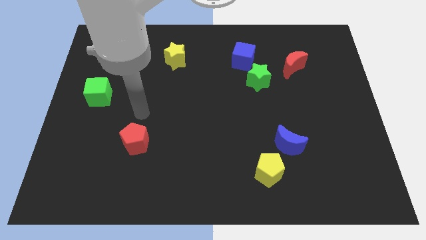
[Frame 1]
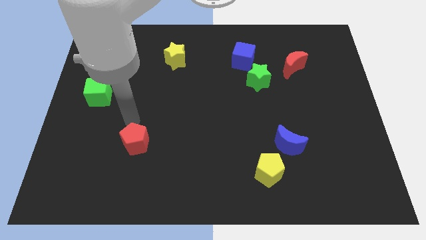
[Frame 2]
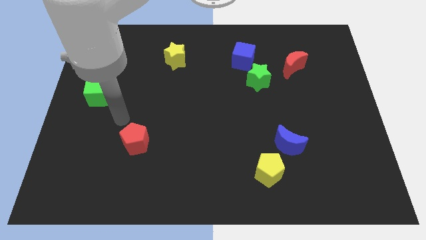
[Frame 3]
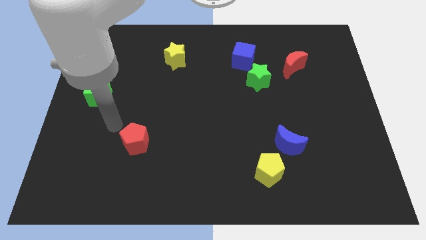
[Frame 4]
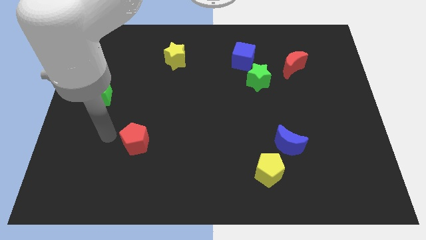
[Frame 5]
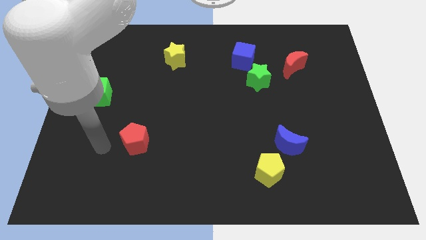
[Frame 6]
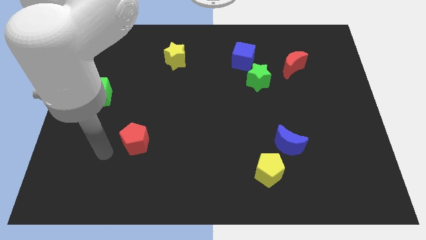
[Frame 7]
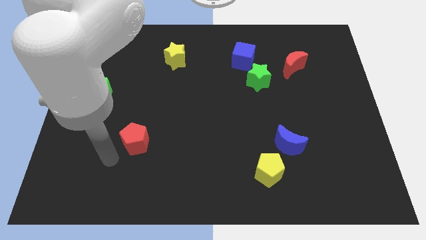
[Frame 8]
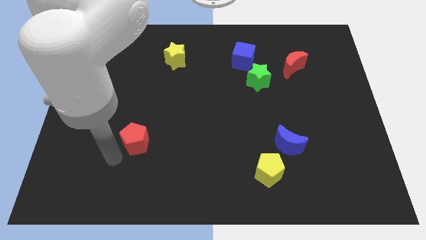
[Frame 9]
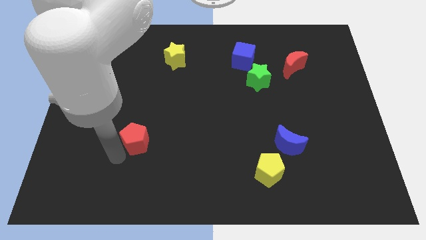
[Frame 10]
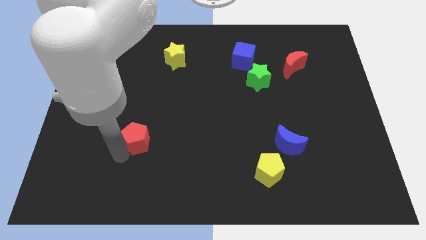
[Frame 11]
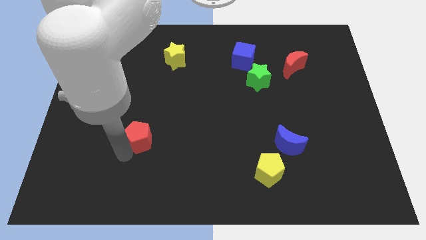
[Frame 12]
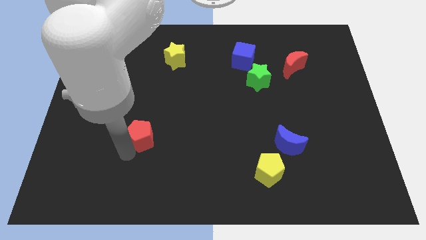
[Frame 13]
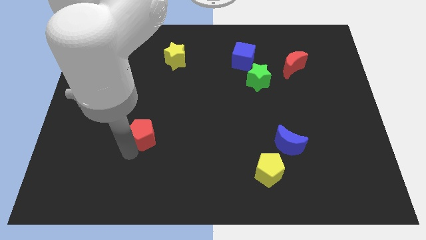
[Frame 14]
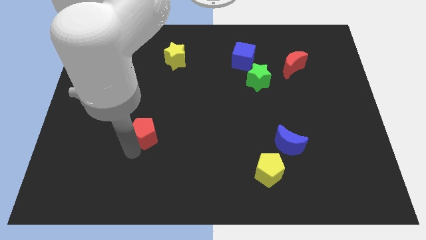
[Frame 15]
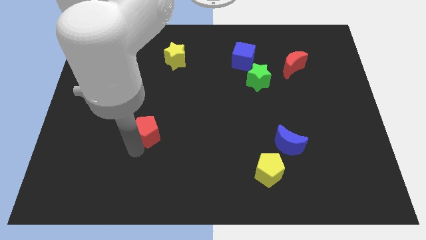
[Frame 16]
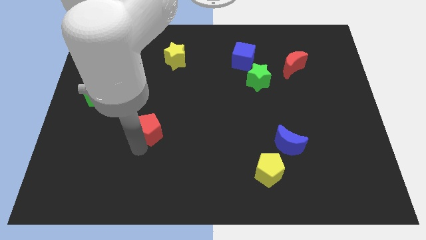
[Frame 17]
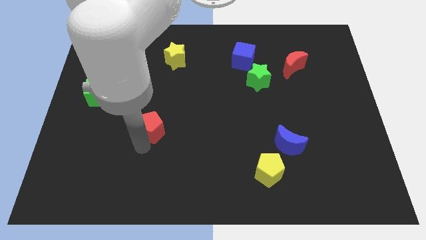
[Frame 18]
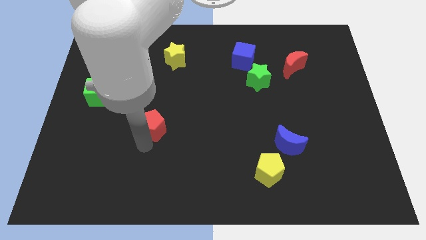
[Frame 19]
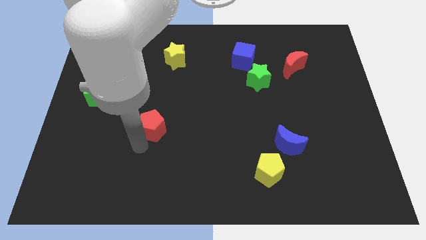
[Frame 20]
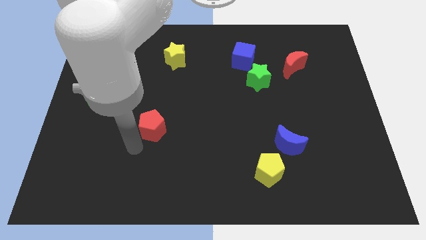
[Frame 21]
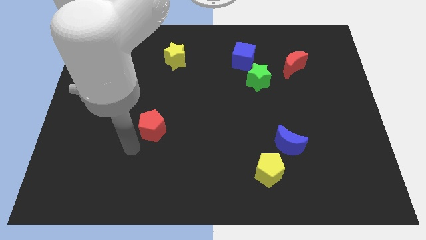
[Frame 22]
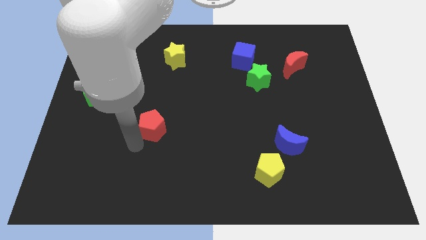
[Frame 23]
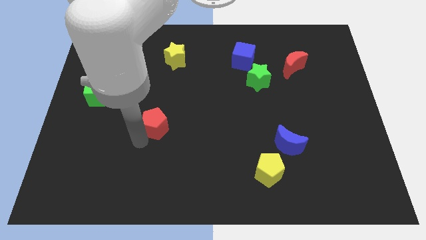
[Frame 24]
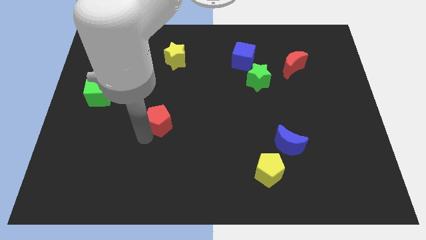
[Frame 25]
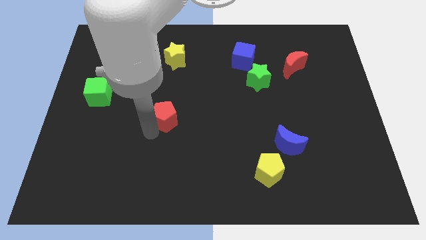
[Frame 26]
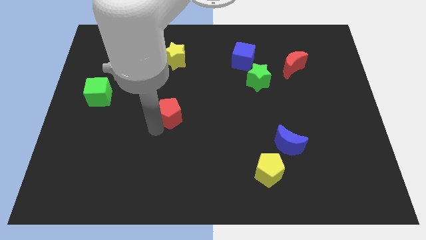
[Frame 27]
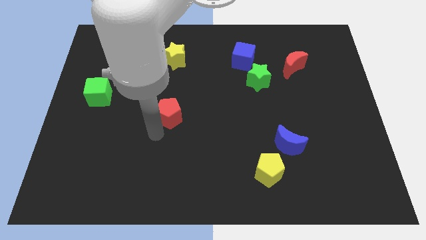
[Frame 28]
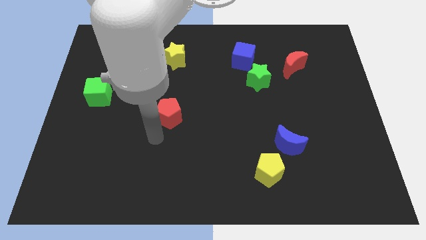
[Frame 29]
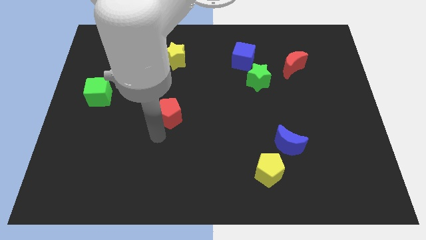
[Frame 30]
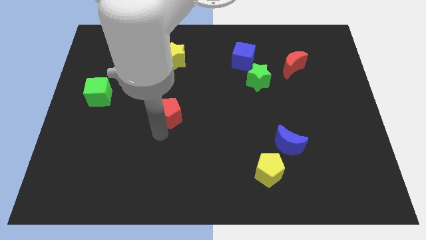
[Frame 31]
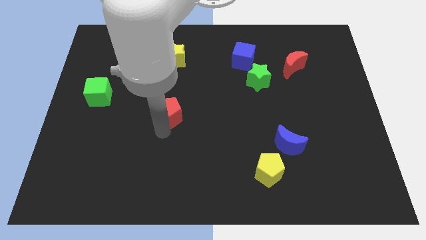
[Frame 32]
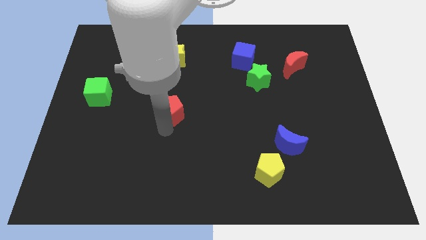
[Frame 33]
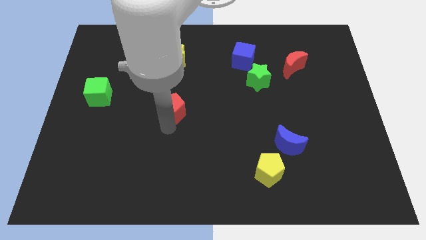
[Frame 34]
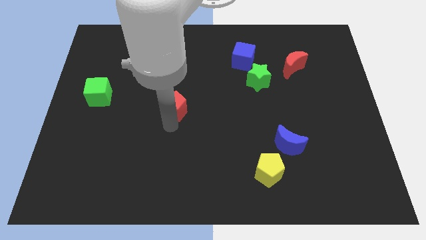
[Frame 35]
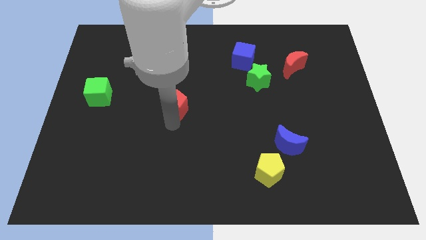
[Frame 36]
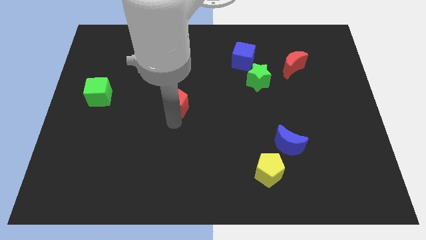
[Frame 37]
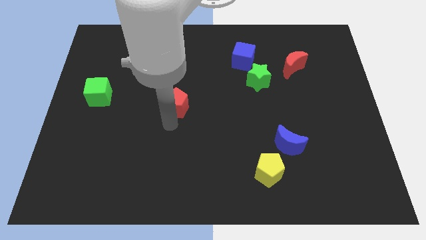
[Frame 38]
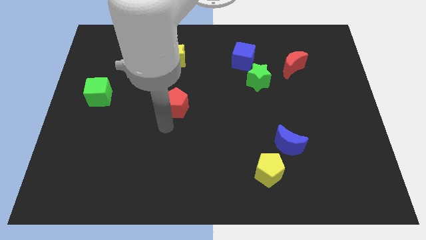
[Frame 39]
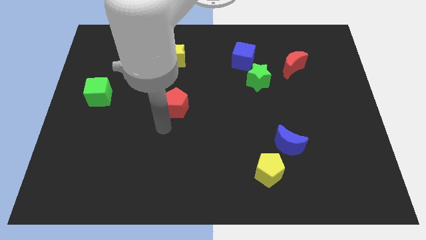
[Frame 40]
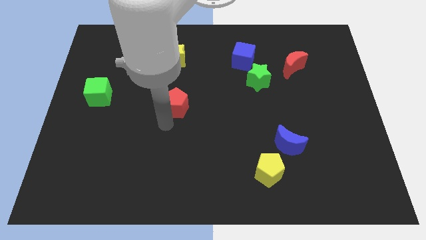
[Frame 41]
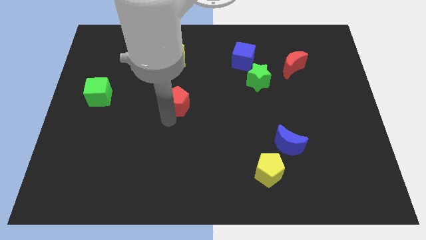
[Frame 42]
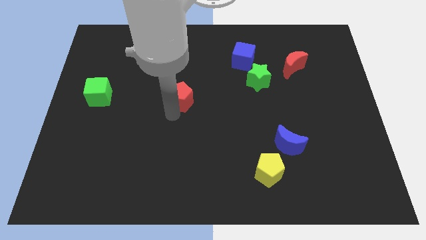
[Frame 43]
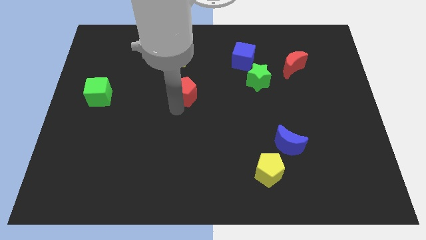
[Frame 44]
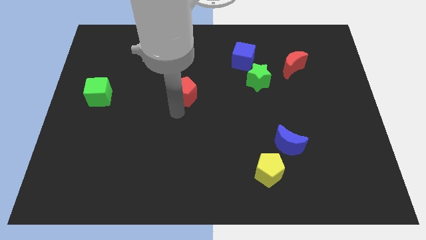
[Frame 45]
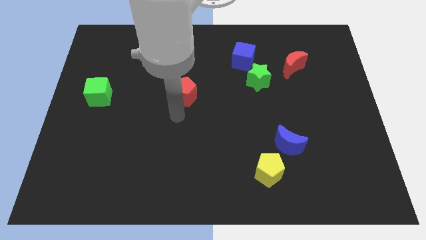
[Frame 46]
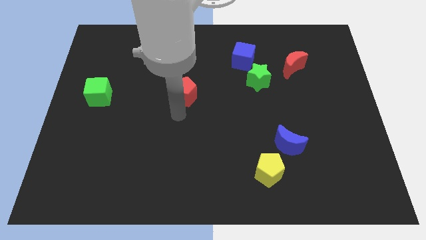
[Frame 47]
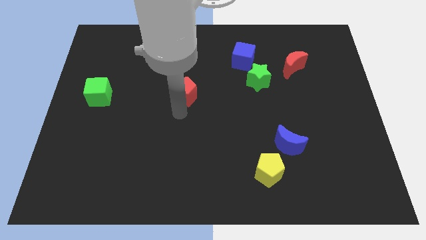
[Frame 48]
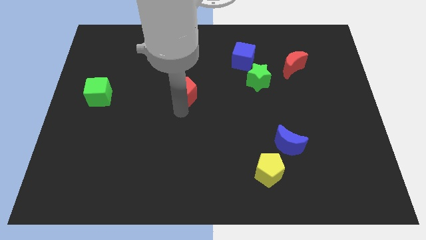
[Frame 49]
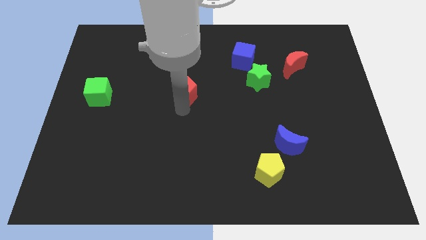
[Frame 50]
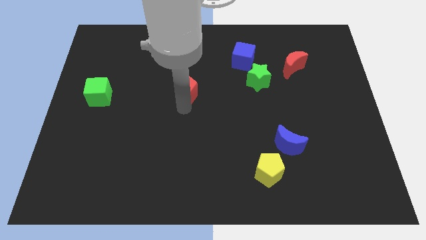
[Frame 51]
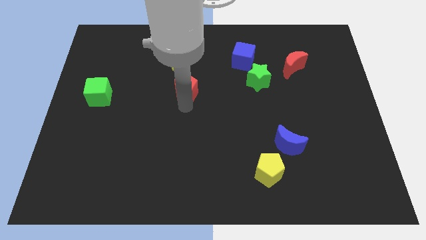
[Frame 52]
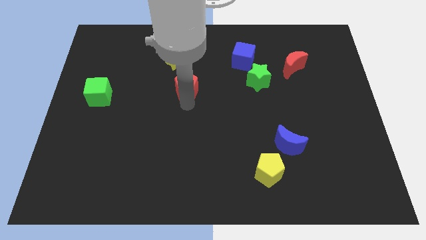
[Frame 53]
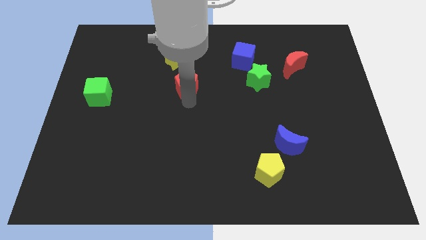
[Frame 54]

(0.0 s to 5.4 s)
push the red pentagon to the bottom right side of the yellow star

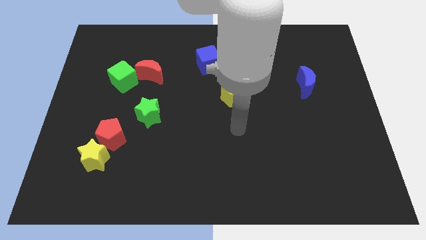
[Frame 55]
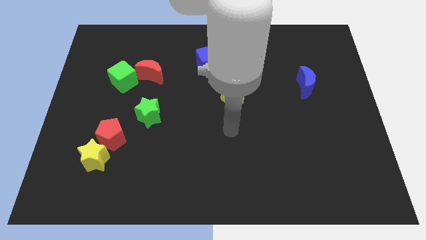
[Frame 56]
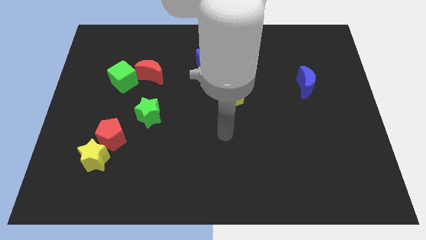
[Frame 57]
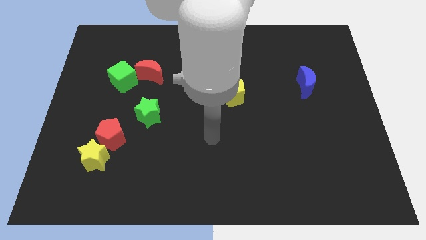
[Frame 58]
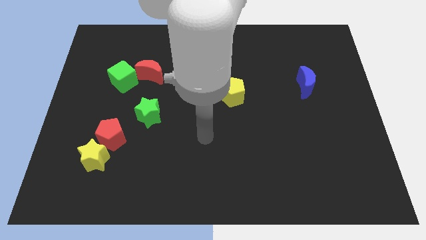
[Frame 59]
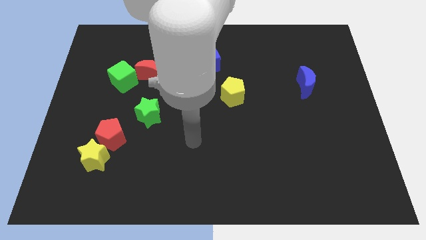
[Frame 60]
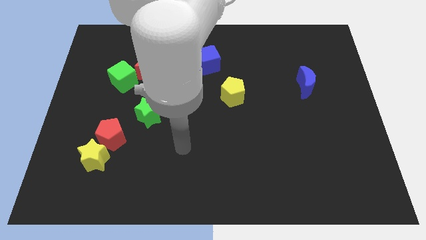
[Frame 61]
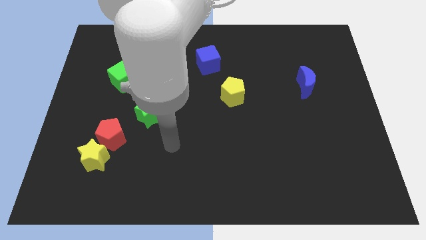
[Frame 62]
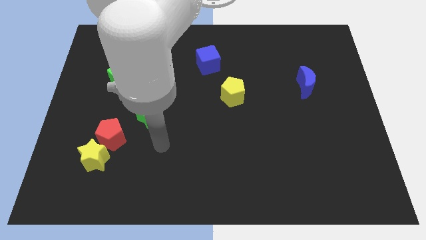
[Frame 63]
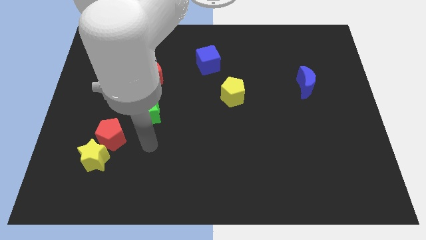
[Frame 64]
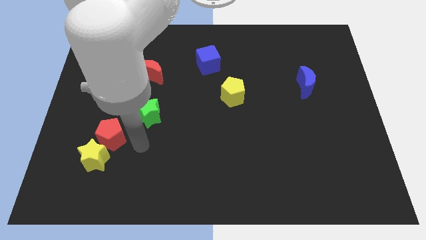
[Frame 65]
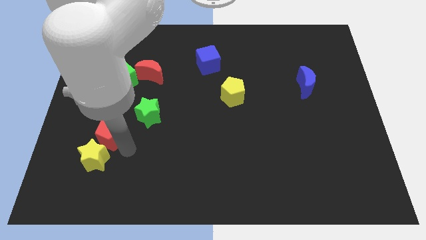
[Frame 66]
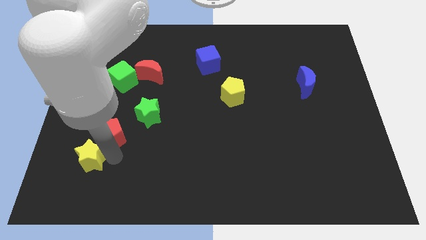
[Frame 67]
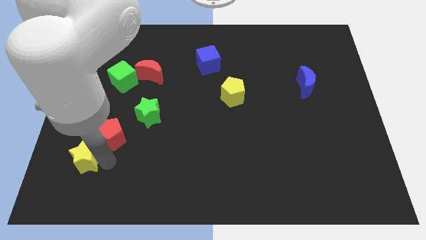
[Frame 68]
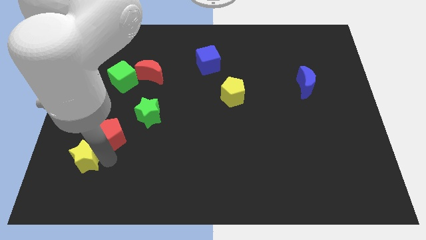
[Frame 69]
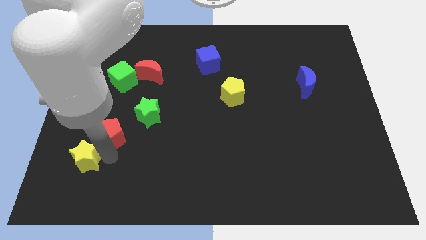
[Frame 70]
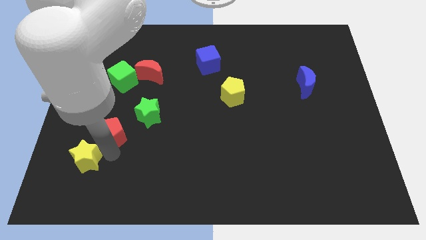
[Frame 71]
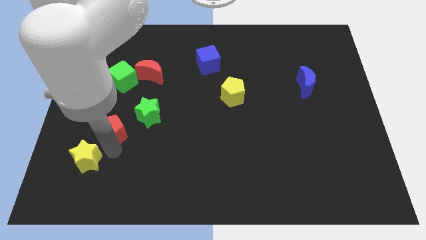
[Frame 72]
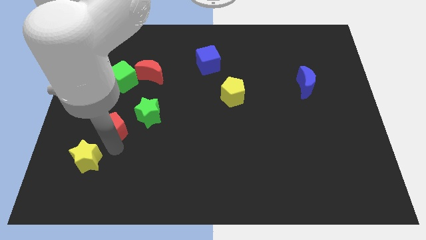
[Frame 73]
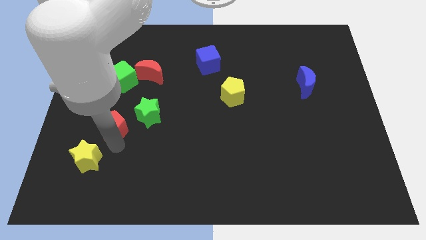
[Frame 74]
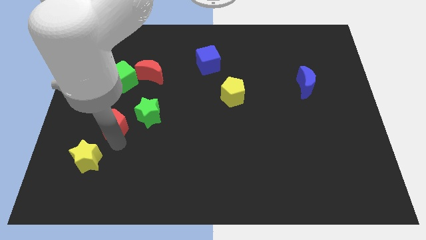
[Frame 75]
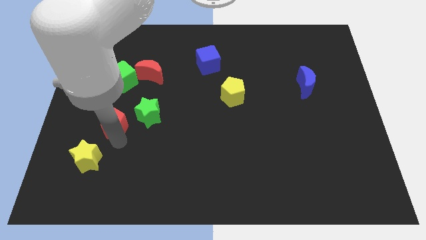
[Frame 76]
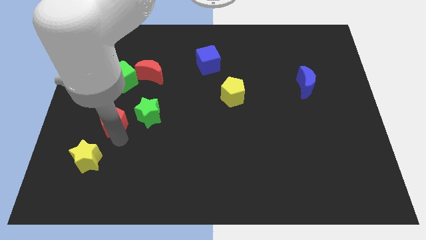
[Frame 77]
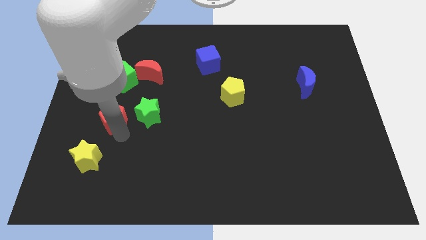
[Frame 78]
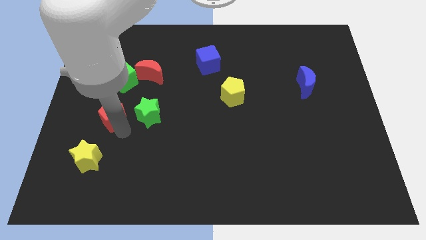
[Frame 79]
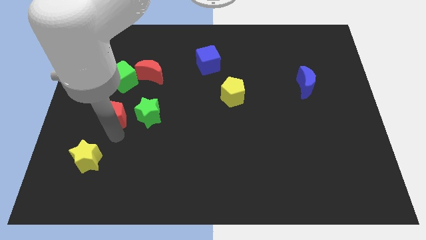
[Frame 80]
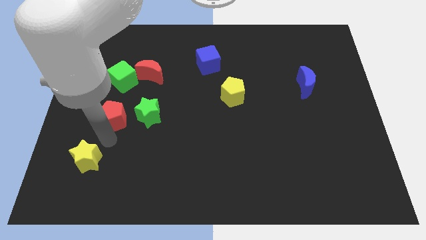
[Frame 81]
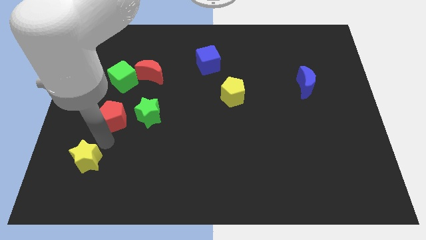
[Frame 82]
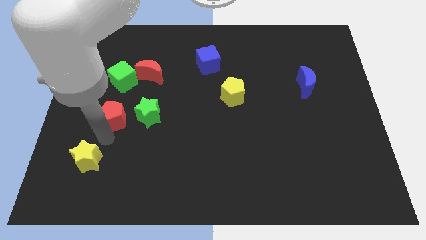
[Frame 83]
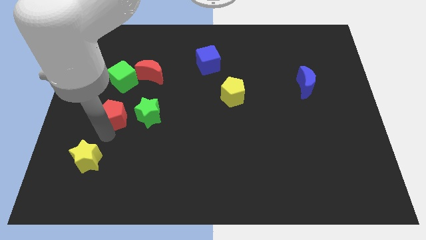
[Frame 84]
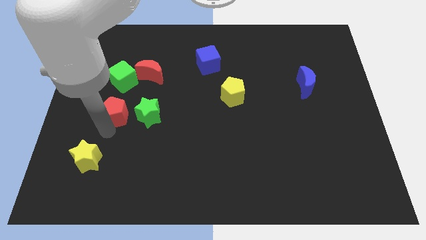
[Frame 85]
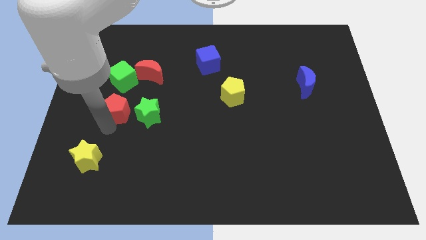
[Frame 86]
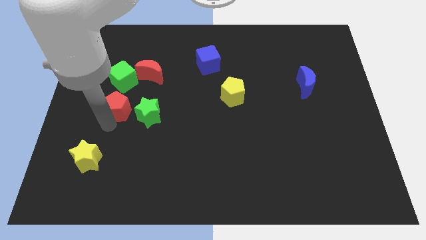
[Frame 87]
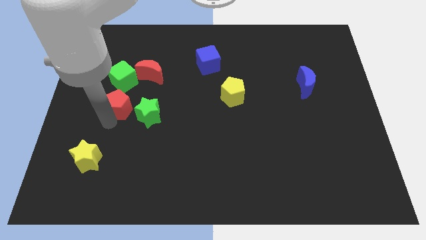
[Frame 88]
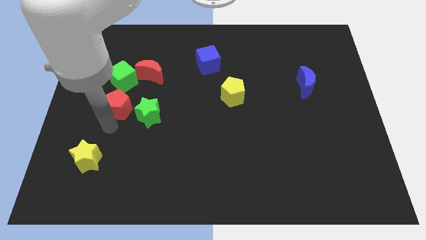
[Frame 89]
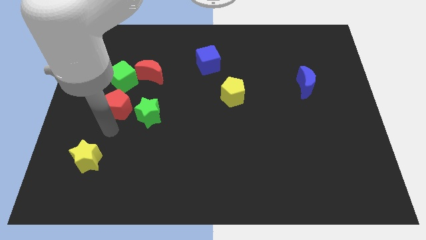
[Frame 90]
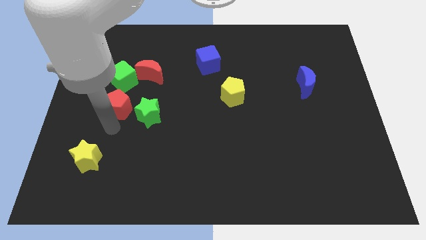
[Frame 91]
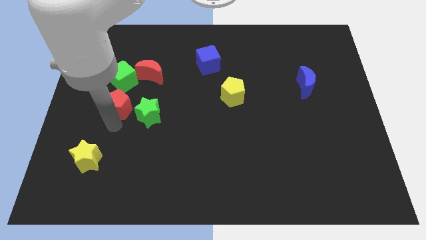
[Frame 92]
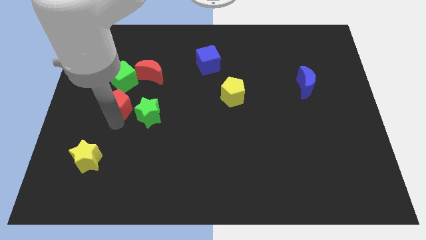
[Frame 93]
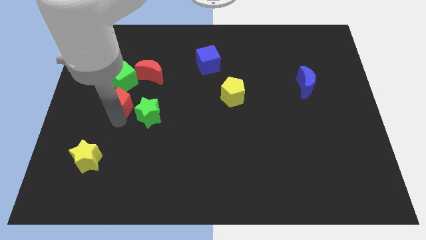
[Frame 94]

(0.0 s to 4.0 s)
put the red pentagon to the bottom left of the red moon
